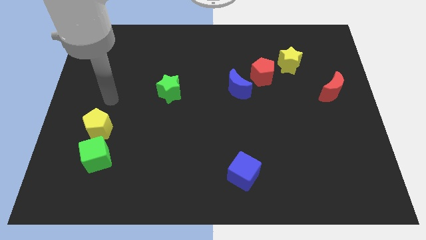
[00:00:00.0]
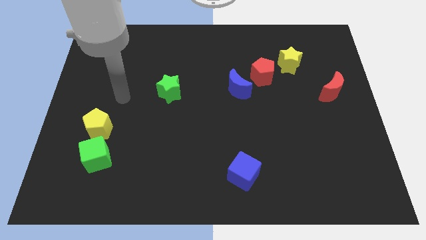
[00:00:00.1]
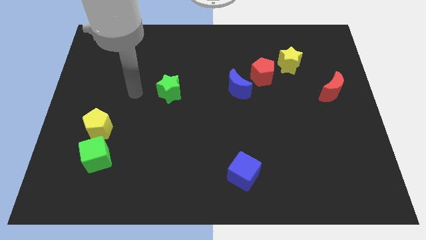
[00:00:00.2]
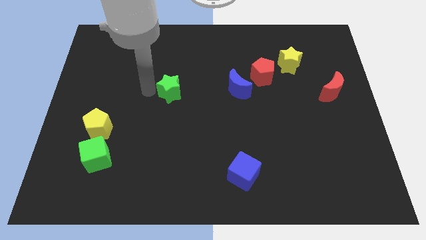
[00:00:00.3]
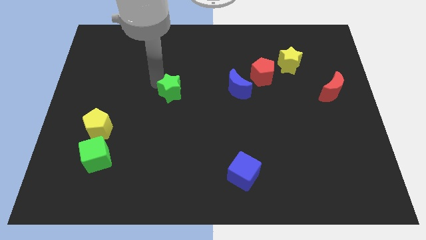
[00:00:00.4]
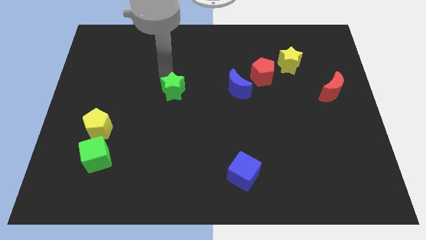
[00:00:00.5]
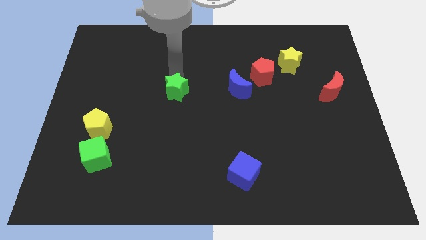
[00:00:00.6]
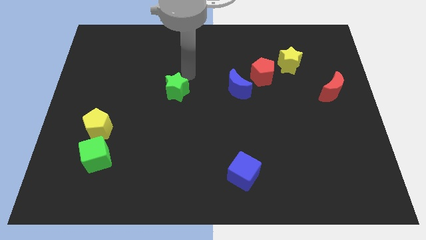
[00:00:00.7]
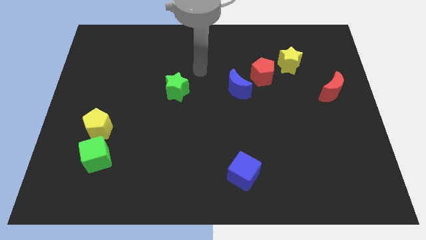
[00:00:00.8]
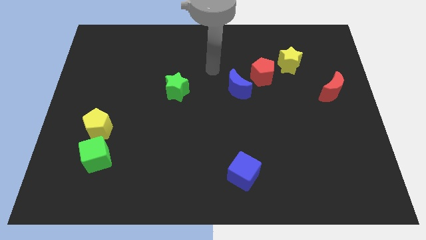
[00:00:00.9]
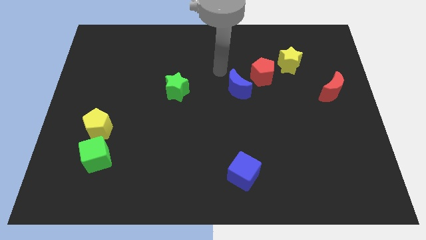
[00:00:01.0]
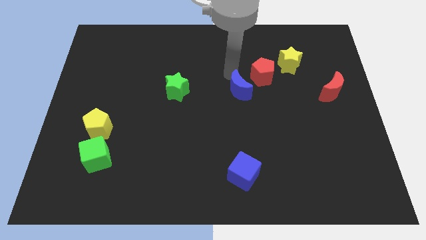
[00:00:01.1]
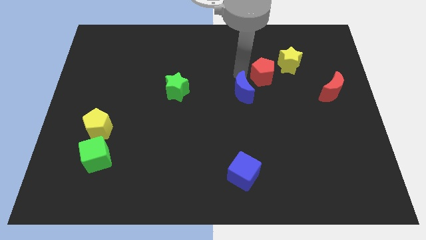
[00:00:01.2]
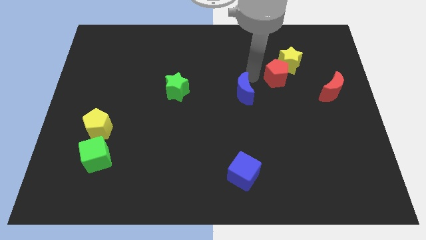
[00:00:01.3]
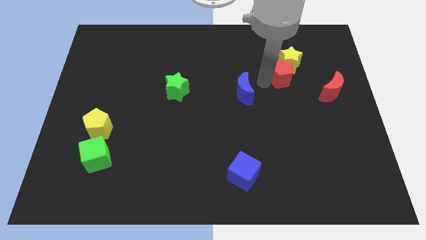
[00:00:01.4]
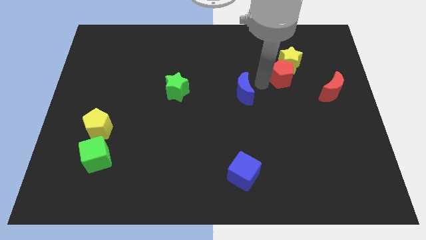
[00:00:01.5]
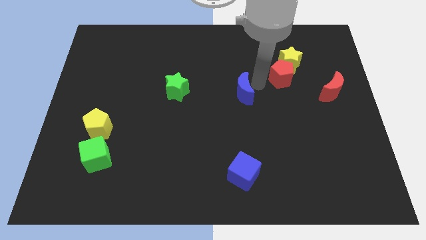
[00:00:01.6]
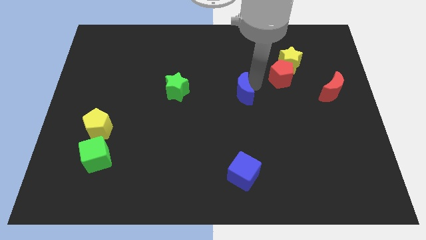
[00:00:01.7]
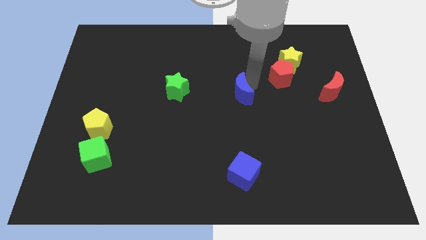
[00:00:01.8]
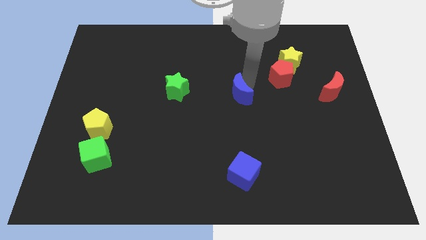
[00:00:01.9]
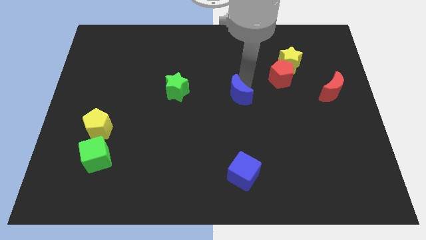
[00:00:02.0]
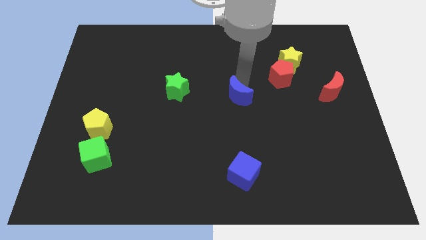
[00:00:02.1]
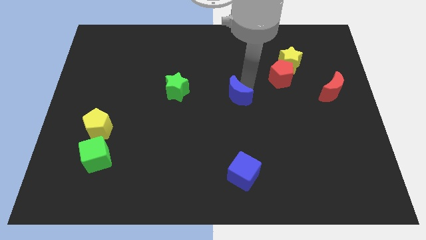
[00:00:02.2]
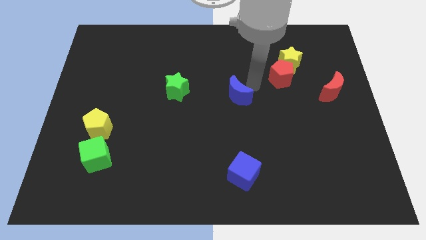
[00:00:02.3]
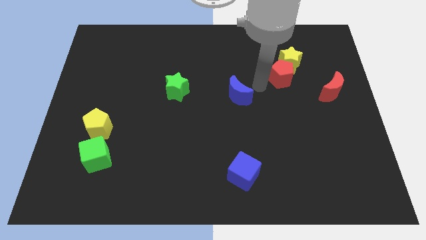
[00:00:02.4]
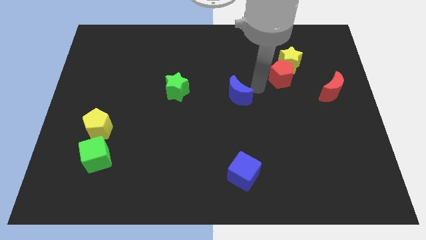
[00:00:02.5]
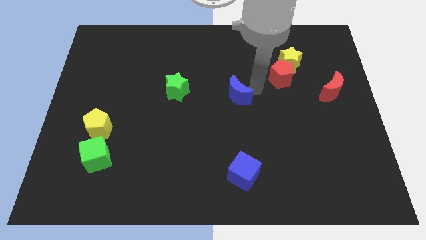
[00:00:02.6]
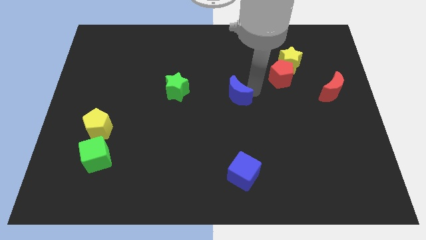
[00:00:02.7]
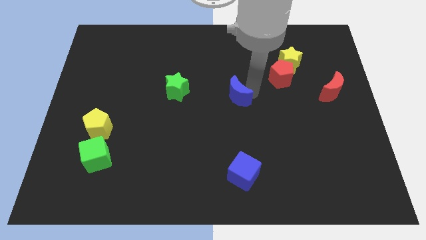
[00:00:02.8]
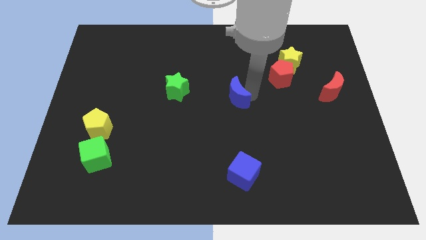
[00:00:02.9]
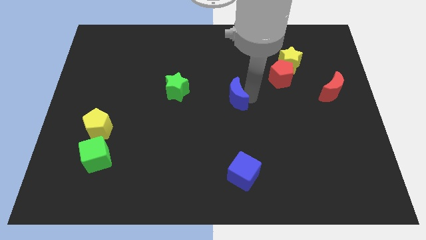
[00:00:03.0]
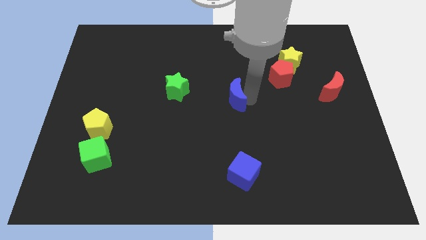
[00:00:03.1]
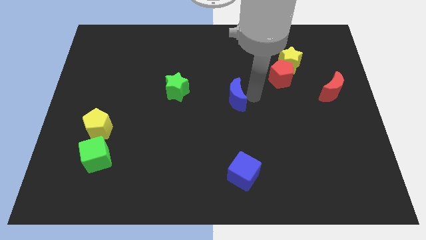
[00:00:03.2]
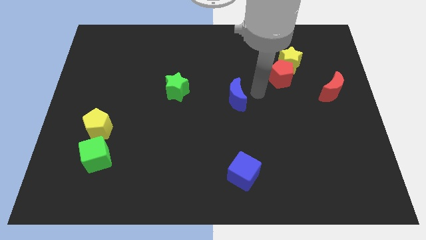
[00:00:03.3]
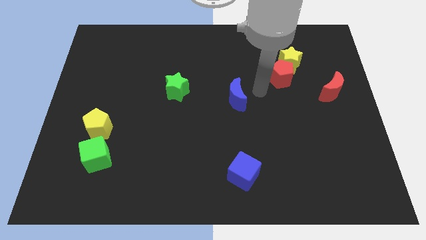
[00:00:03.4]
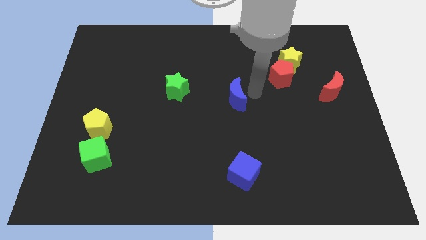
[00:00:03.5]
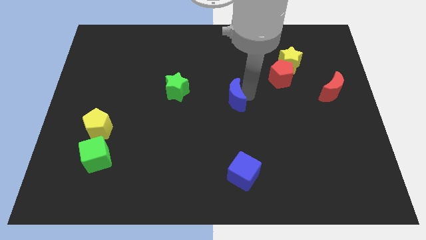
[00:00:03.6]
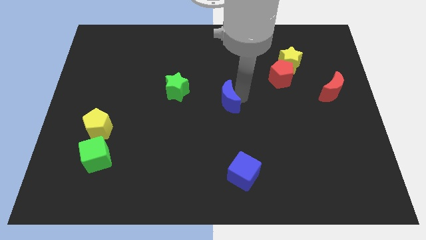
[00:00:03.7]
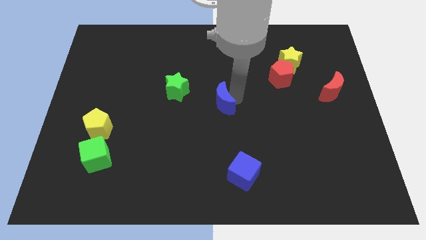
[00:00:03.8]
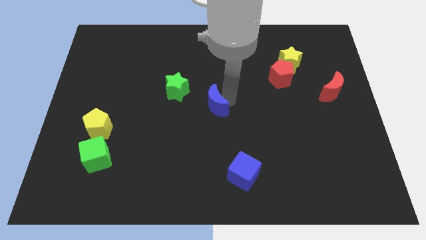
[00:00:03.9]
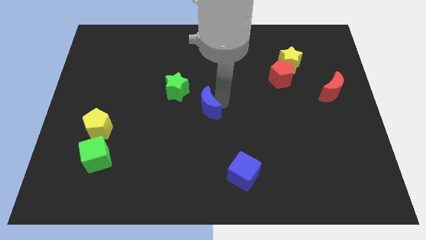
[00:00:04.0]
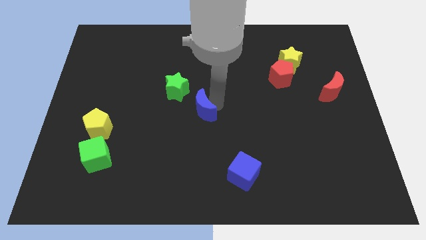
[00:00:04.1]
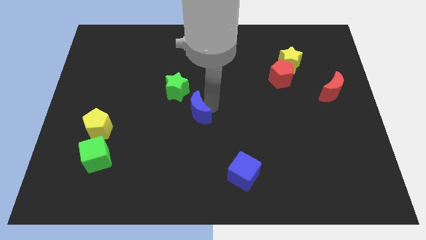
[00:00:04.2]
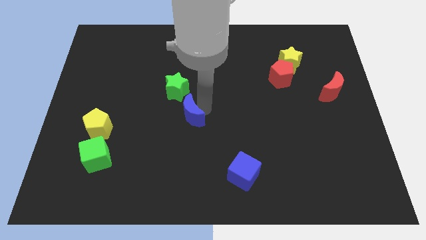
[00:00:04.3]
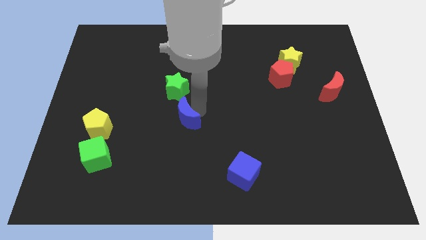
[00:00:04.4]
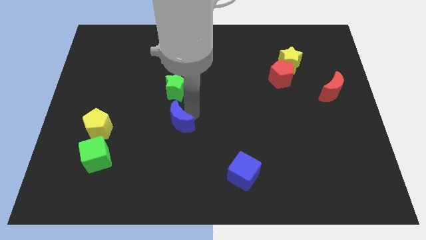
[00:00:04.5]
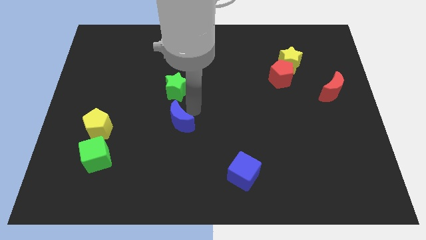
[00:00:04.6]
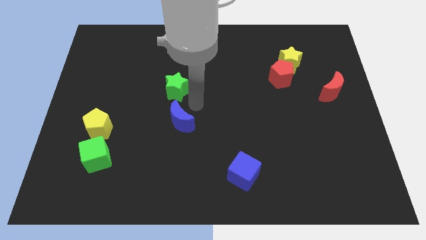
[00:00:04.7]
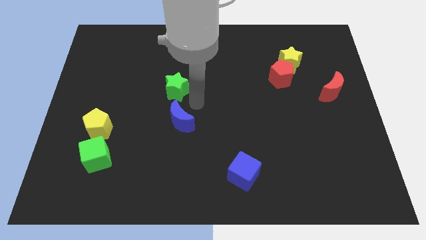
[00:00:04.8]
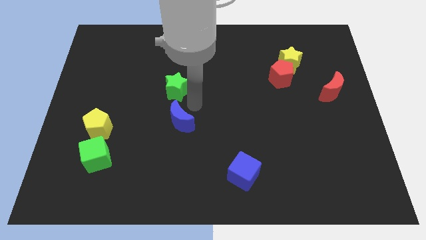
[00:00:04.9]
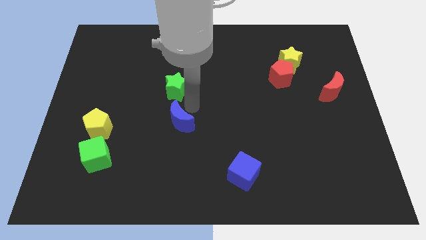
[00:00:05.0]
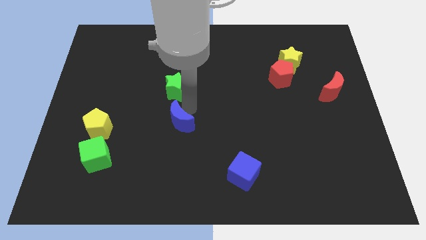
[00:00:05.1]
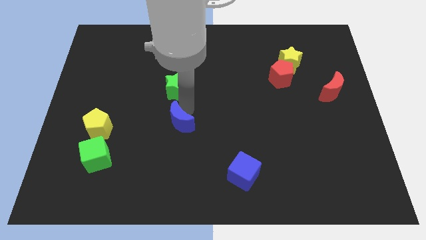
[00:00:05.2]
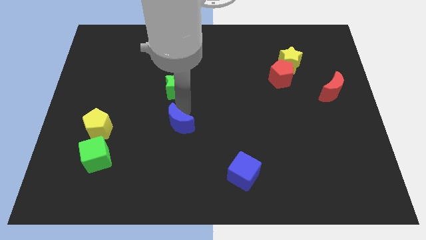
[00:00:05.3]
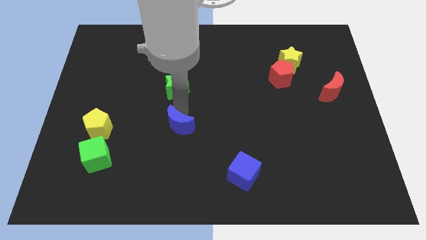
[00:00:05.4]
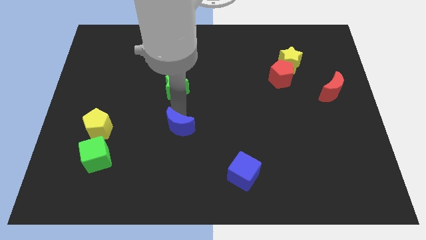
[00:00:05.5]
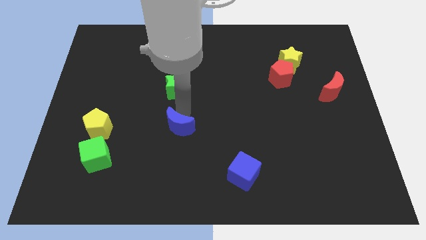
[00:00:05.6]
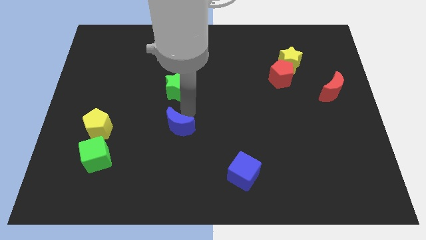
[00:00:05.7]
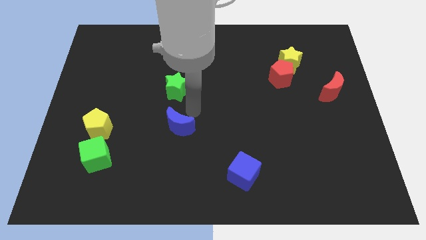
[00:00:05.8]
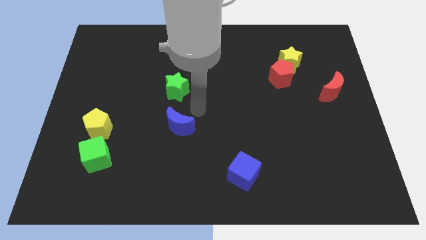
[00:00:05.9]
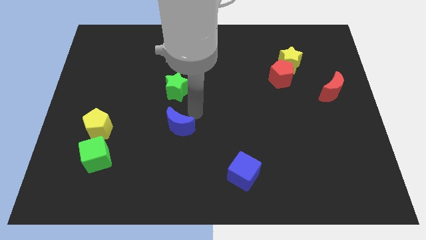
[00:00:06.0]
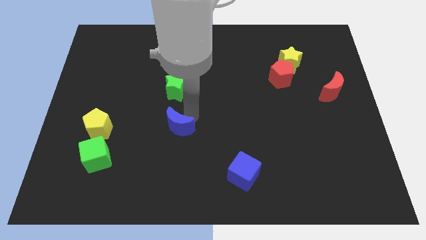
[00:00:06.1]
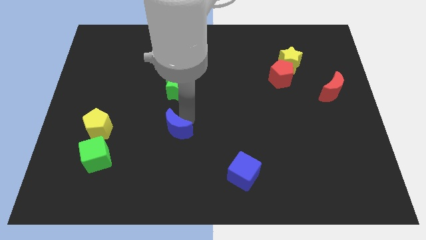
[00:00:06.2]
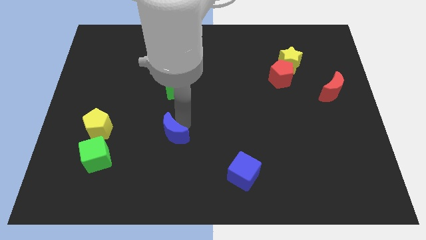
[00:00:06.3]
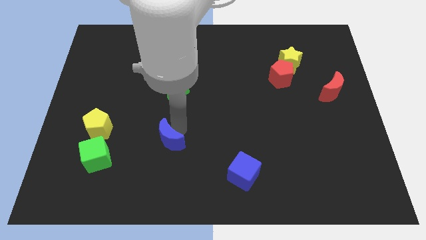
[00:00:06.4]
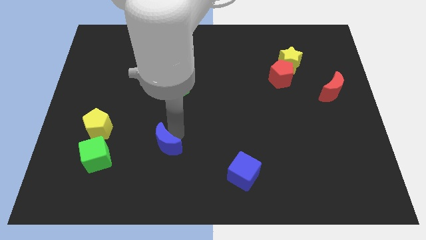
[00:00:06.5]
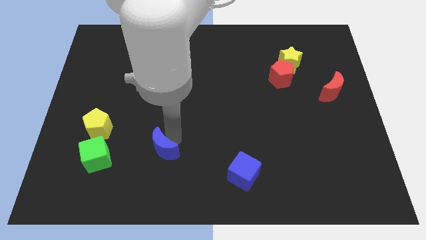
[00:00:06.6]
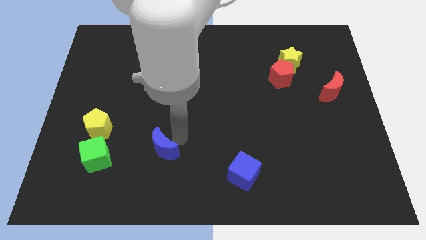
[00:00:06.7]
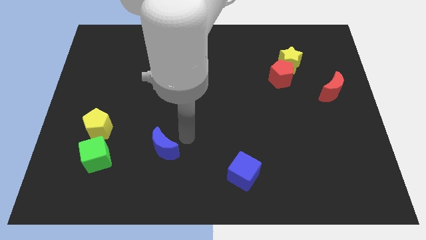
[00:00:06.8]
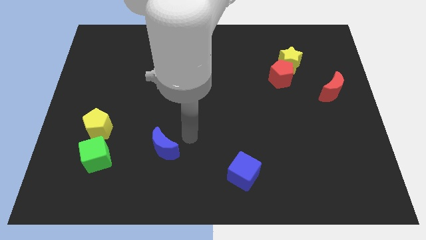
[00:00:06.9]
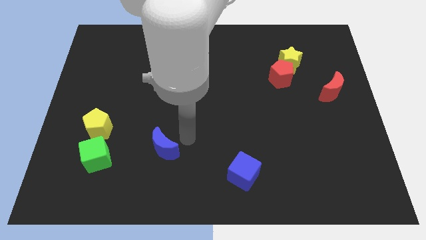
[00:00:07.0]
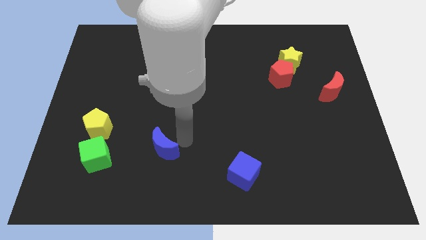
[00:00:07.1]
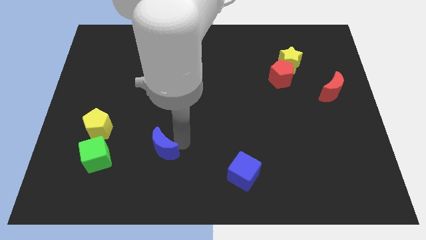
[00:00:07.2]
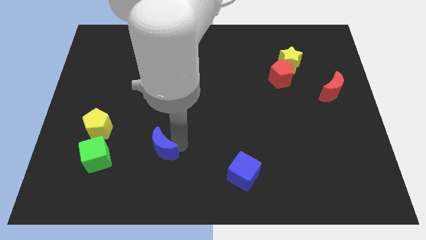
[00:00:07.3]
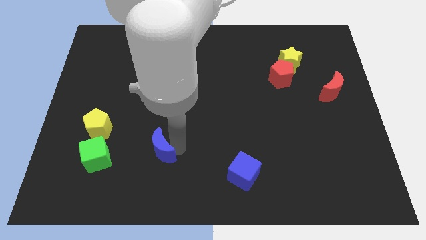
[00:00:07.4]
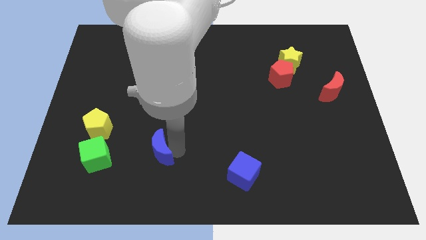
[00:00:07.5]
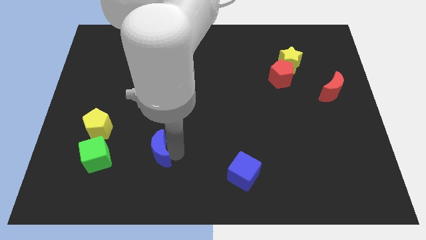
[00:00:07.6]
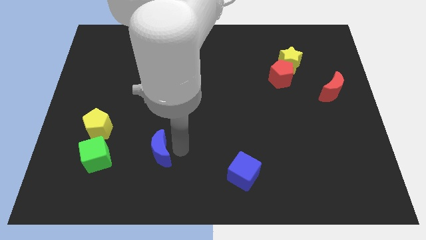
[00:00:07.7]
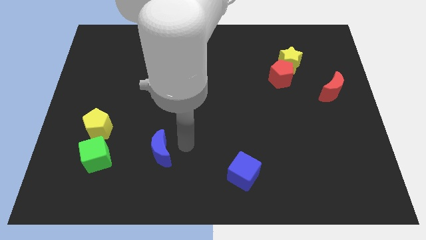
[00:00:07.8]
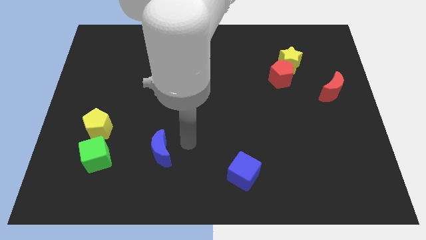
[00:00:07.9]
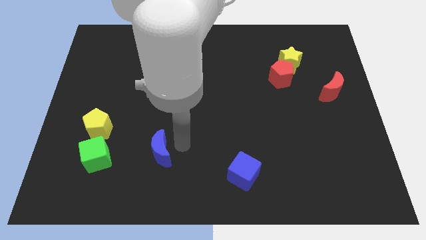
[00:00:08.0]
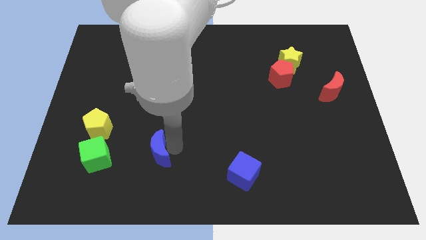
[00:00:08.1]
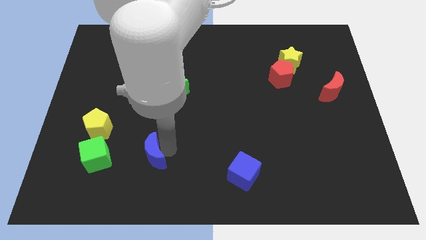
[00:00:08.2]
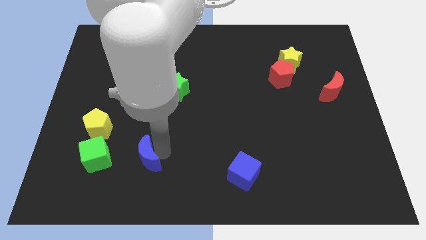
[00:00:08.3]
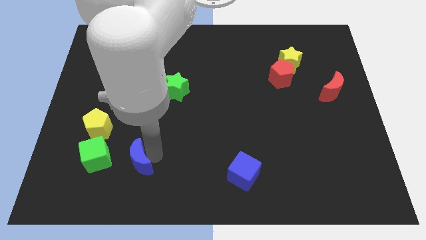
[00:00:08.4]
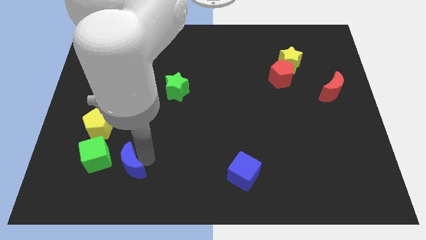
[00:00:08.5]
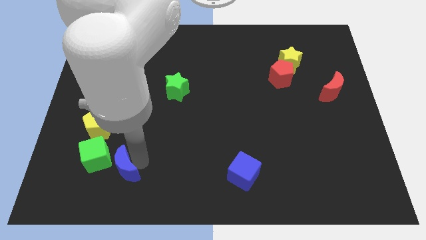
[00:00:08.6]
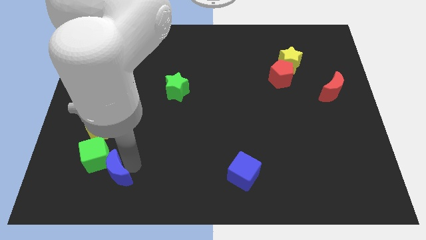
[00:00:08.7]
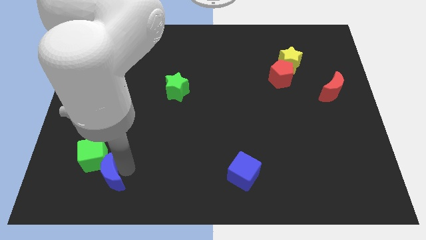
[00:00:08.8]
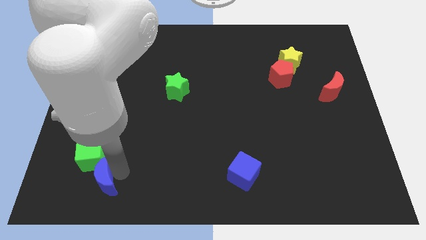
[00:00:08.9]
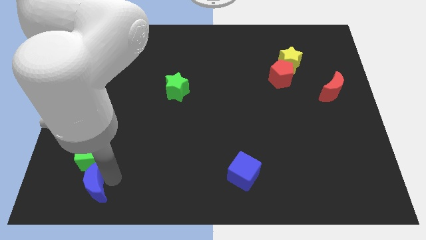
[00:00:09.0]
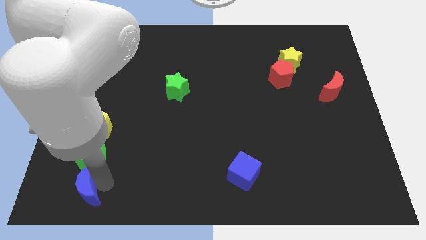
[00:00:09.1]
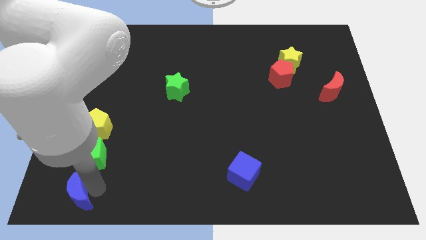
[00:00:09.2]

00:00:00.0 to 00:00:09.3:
slide the blue moon to the bottom left corner
